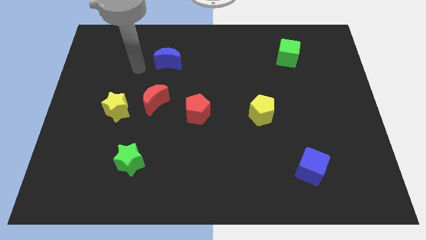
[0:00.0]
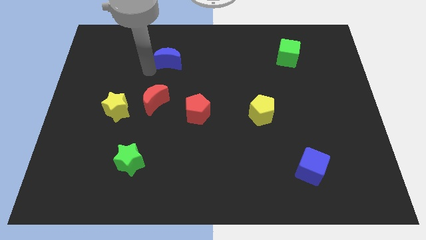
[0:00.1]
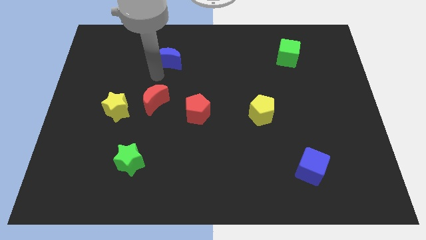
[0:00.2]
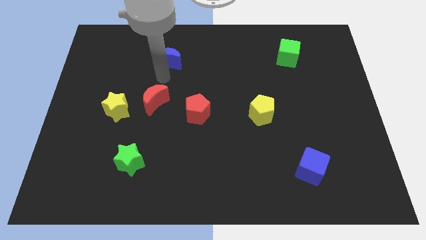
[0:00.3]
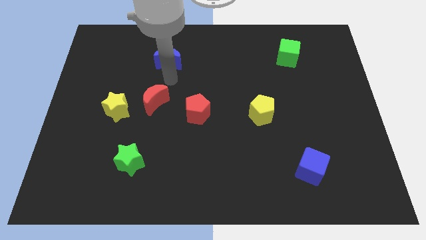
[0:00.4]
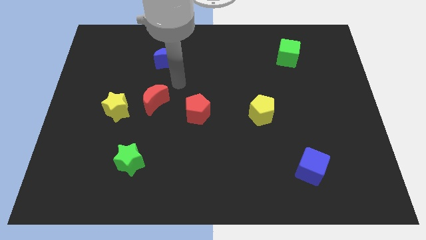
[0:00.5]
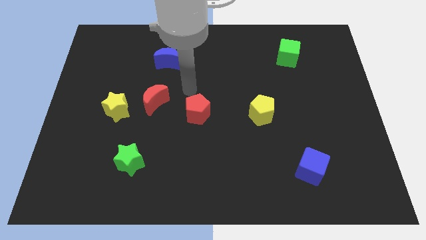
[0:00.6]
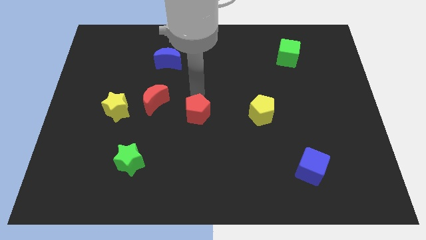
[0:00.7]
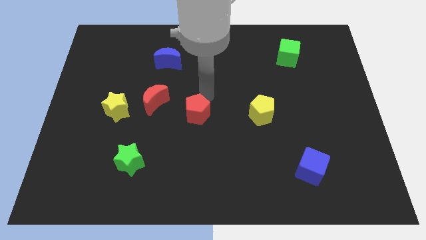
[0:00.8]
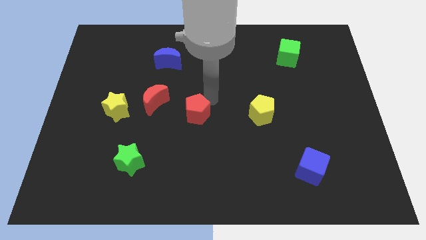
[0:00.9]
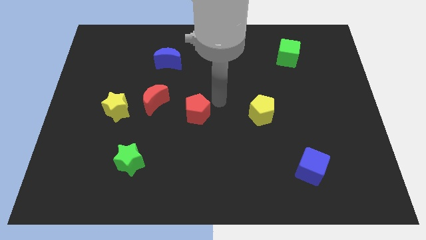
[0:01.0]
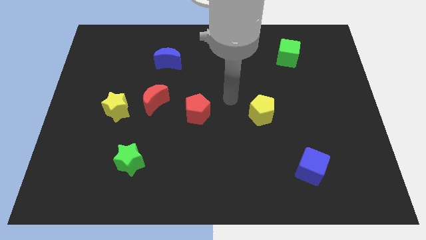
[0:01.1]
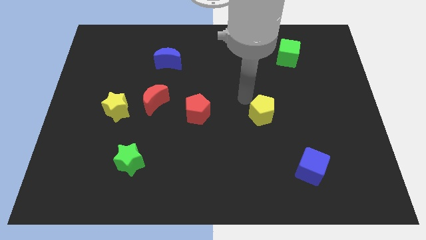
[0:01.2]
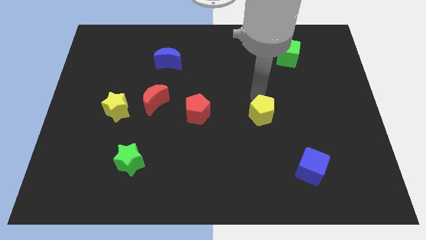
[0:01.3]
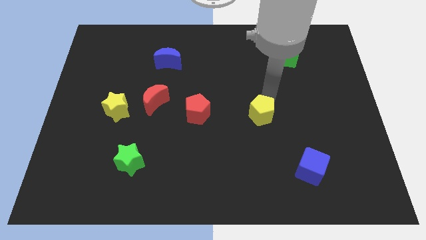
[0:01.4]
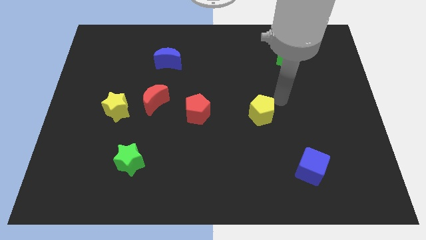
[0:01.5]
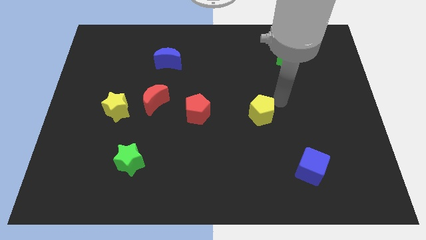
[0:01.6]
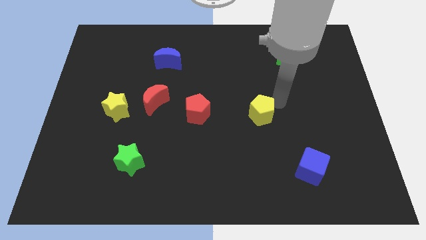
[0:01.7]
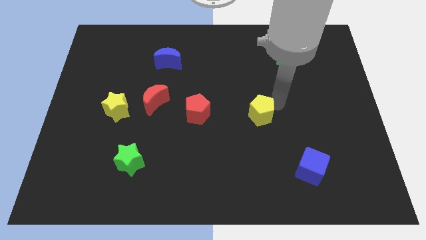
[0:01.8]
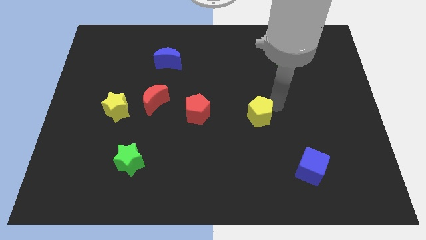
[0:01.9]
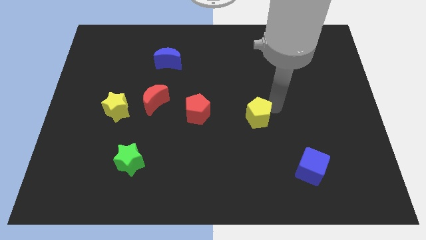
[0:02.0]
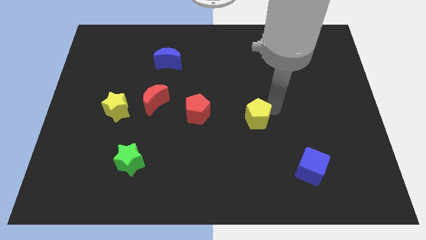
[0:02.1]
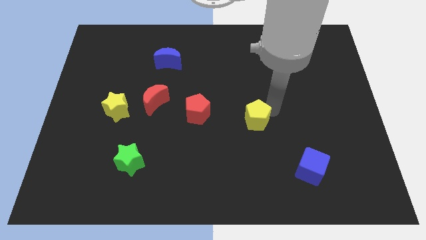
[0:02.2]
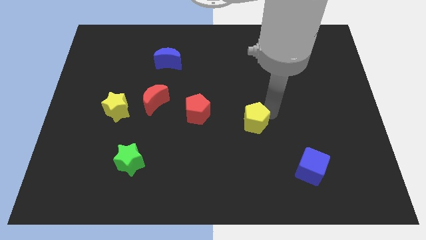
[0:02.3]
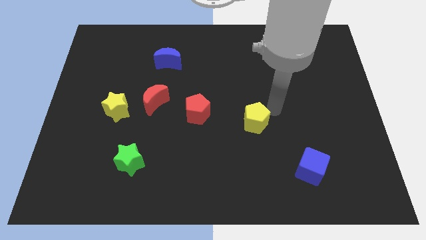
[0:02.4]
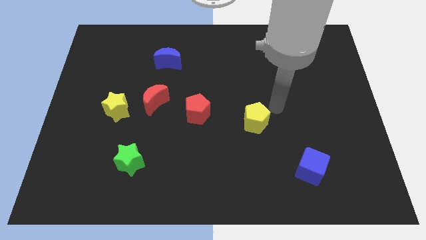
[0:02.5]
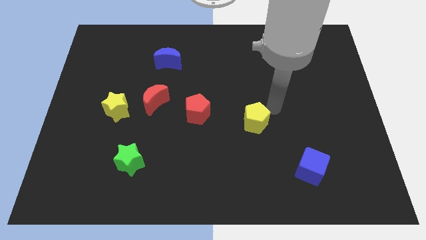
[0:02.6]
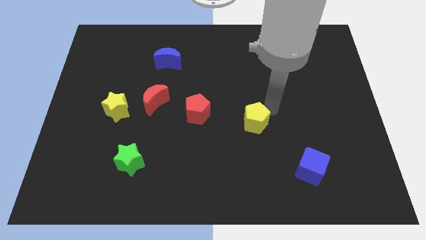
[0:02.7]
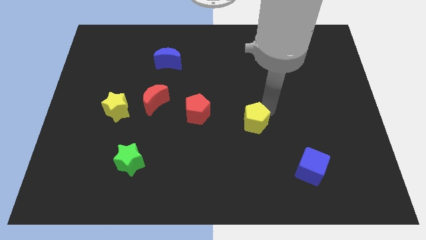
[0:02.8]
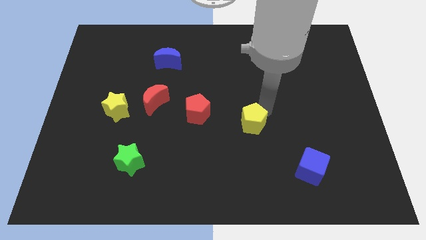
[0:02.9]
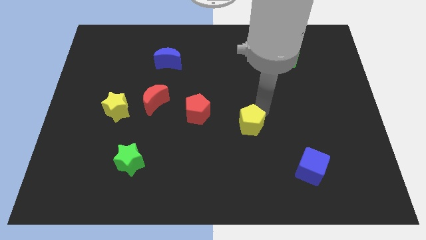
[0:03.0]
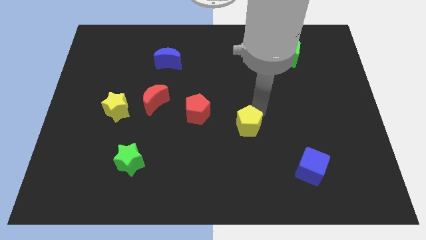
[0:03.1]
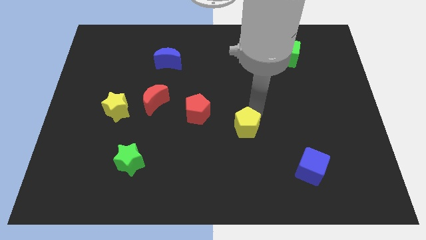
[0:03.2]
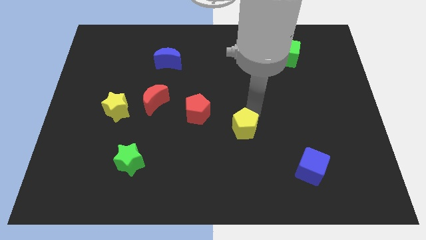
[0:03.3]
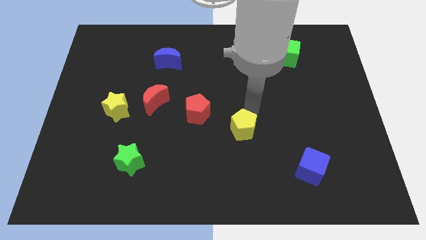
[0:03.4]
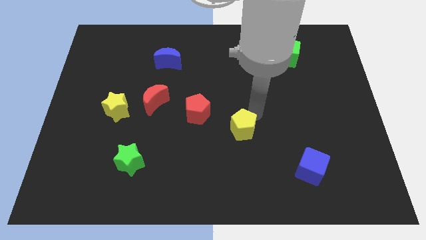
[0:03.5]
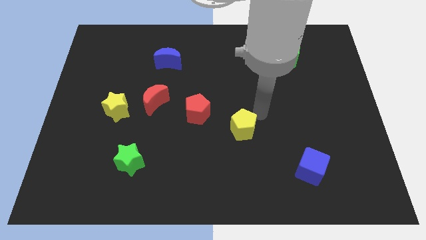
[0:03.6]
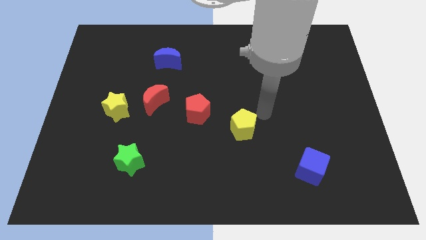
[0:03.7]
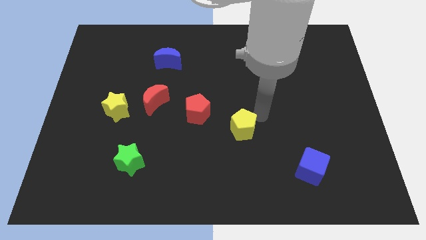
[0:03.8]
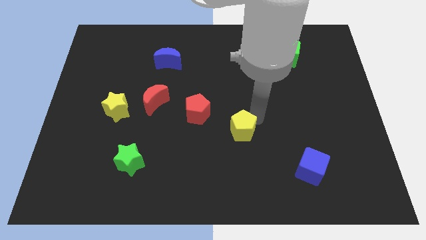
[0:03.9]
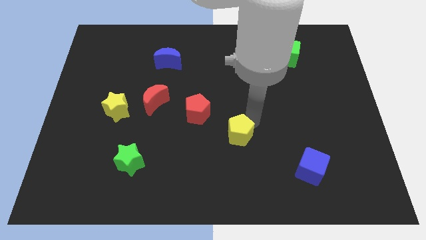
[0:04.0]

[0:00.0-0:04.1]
move the yellow pentagon downwards and to the left diagonally somewhat

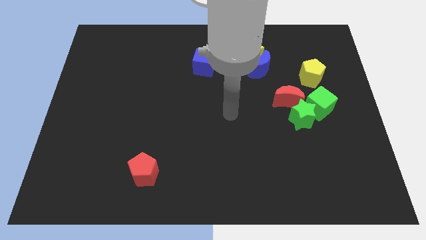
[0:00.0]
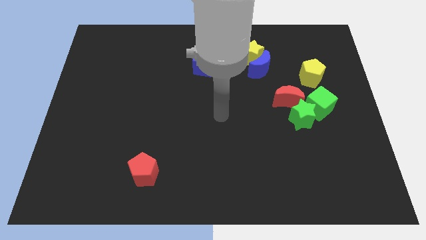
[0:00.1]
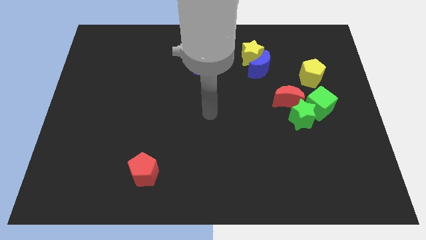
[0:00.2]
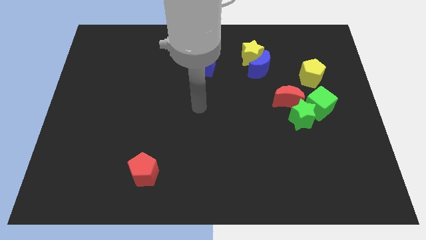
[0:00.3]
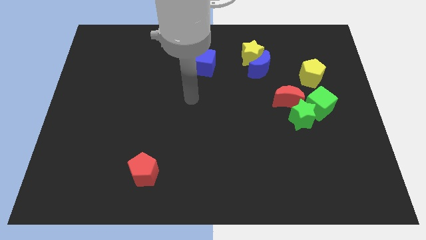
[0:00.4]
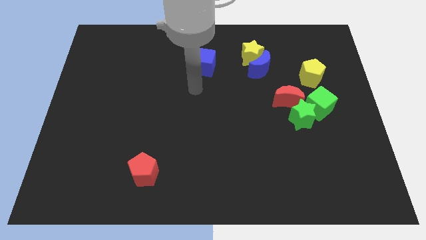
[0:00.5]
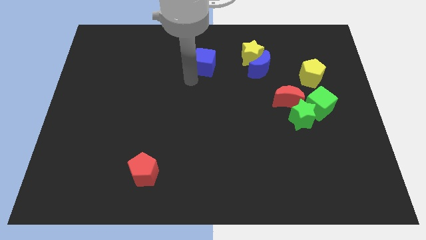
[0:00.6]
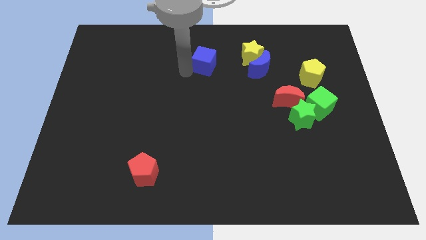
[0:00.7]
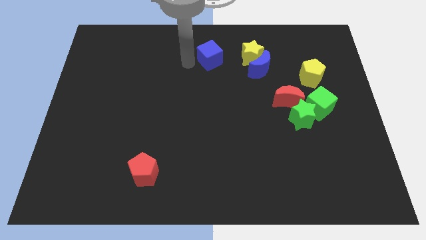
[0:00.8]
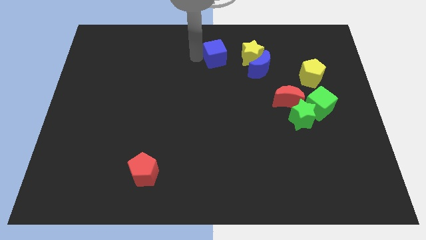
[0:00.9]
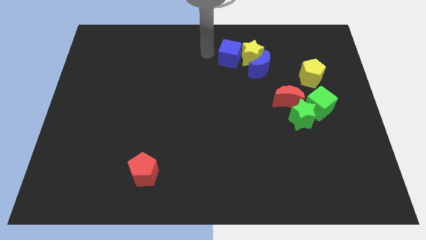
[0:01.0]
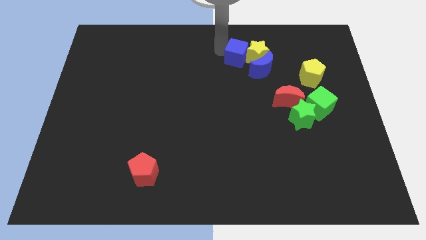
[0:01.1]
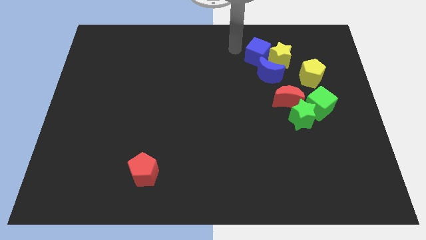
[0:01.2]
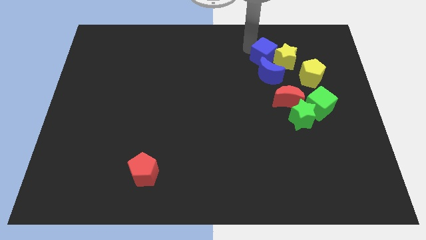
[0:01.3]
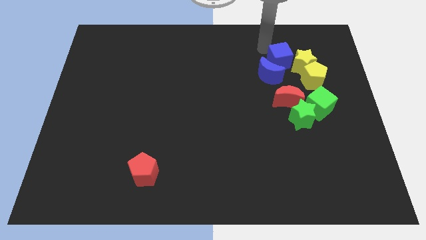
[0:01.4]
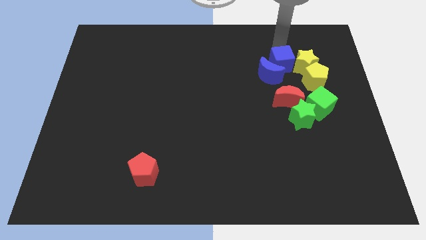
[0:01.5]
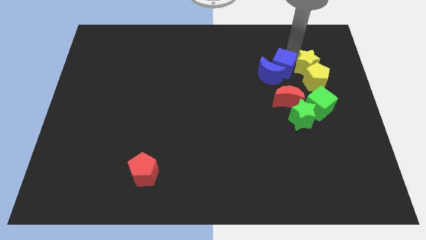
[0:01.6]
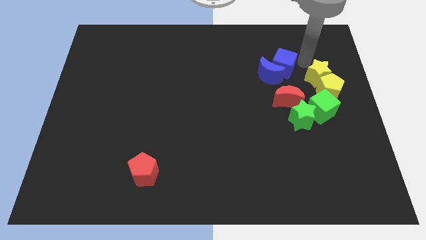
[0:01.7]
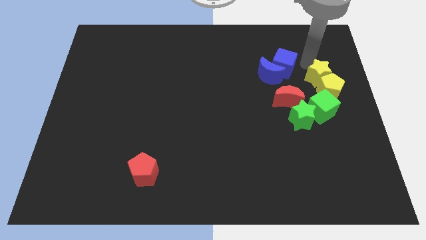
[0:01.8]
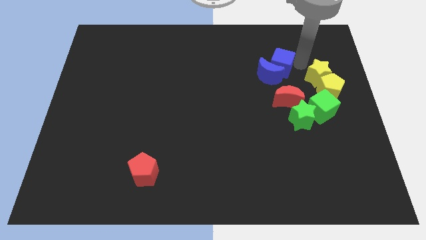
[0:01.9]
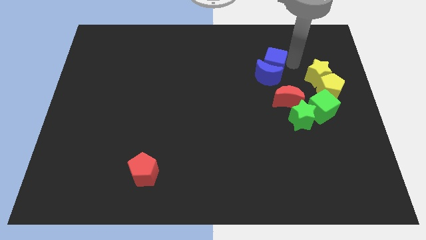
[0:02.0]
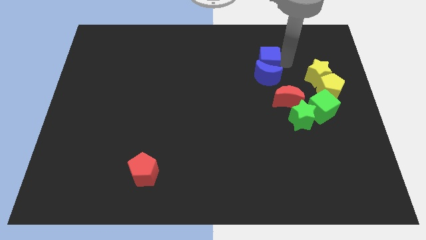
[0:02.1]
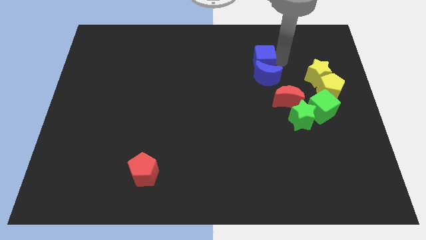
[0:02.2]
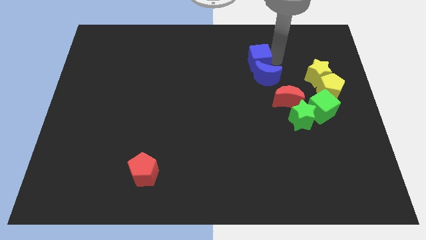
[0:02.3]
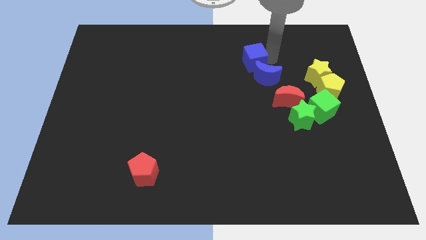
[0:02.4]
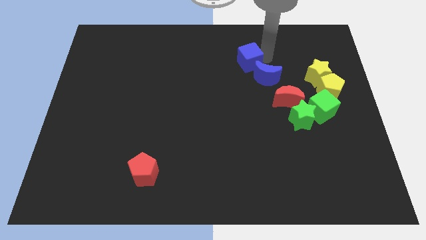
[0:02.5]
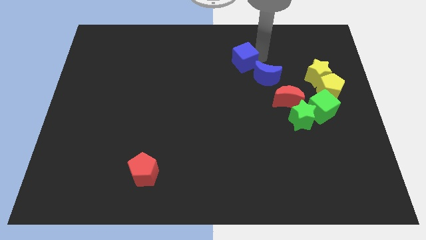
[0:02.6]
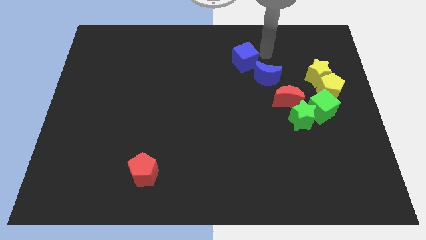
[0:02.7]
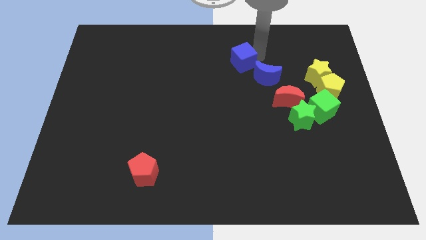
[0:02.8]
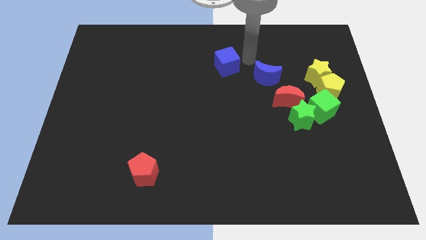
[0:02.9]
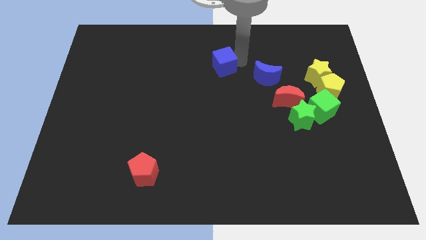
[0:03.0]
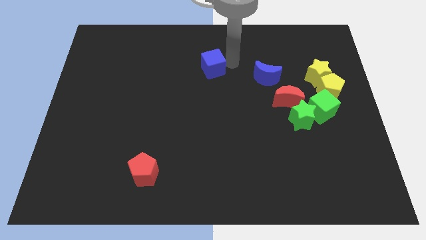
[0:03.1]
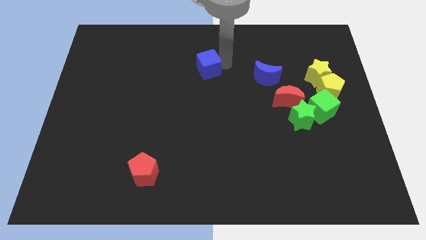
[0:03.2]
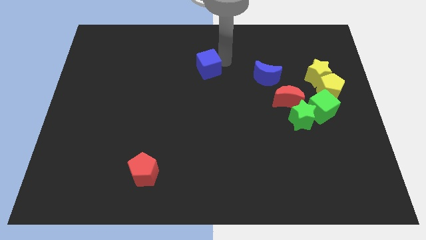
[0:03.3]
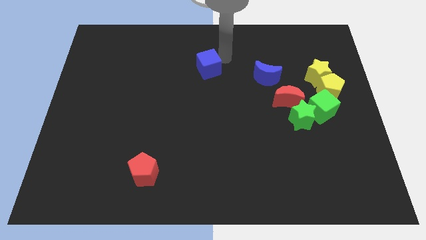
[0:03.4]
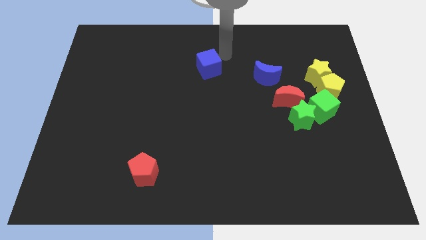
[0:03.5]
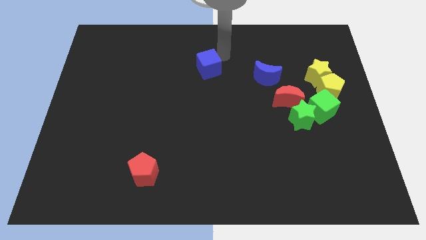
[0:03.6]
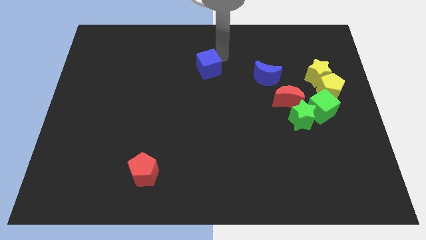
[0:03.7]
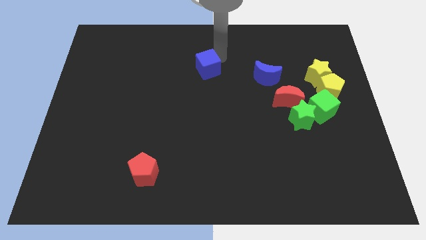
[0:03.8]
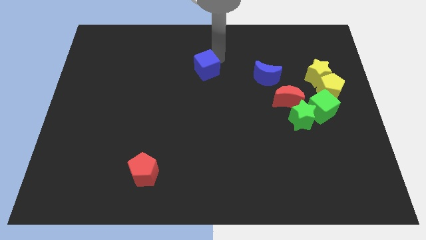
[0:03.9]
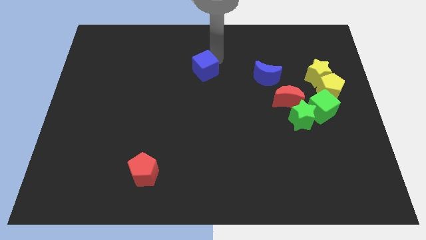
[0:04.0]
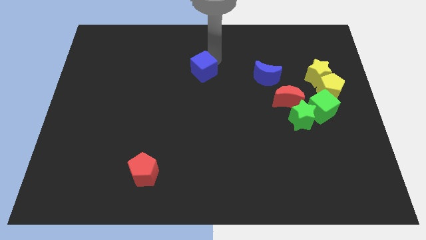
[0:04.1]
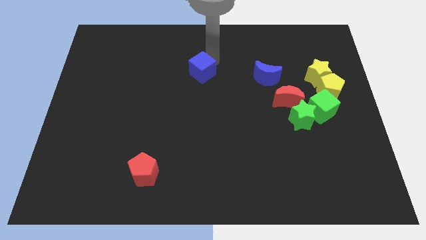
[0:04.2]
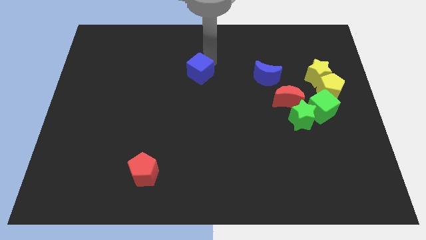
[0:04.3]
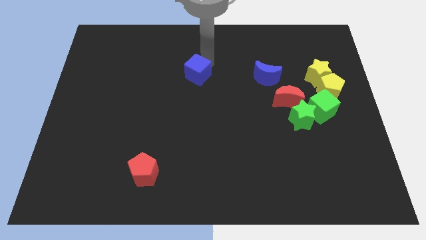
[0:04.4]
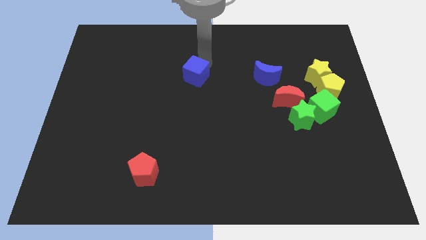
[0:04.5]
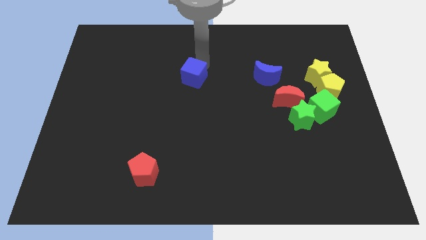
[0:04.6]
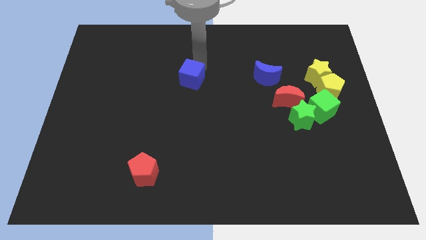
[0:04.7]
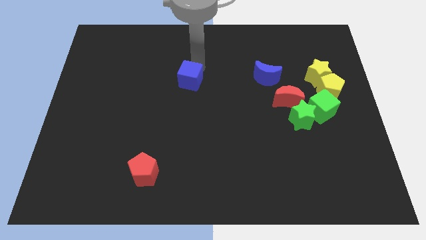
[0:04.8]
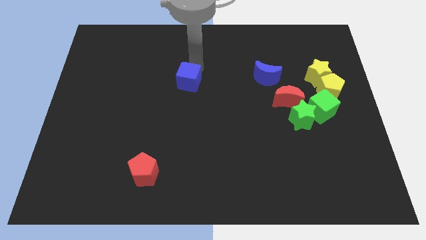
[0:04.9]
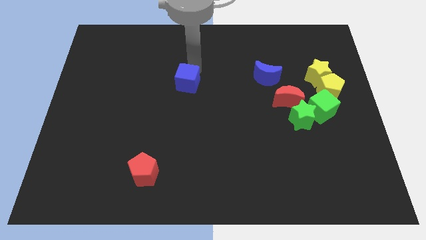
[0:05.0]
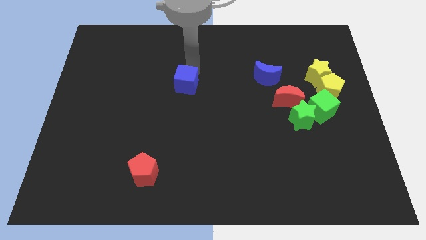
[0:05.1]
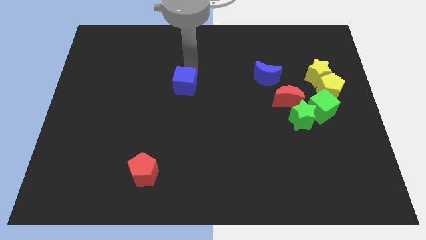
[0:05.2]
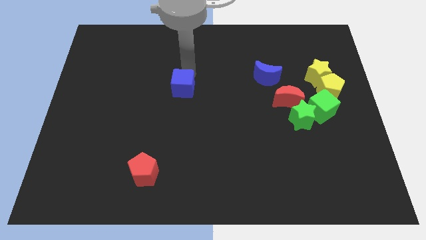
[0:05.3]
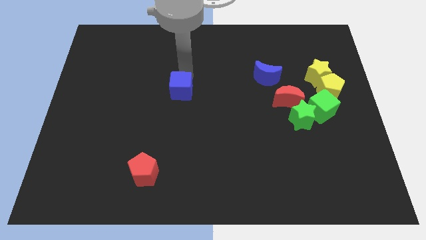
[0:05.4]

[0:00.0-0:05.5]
push the blue cube downwards a little bit
